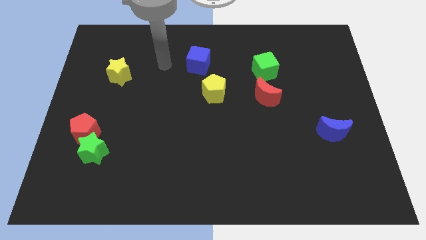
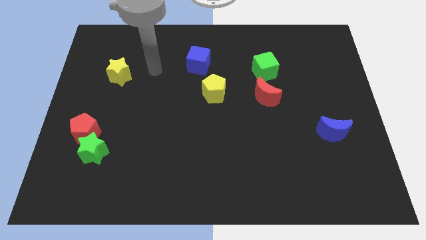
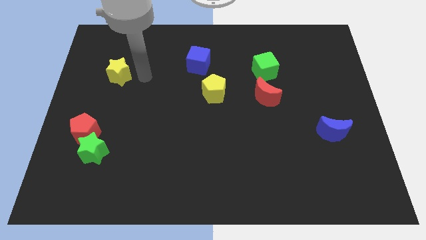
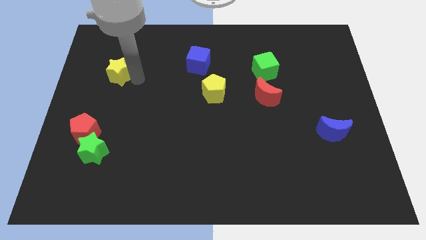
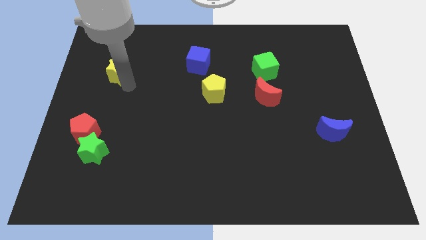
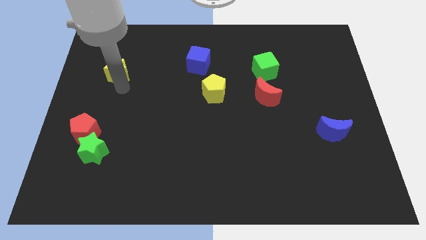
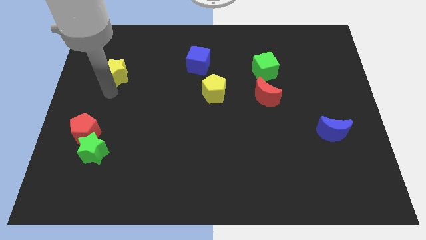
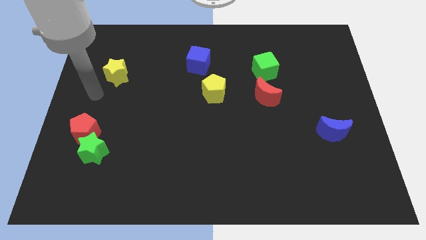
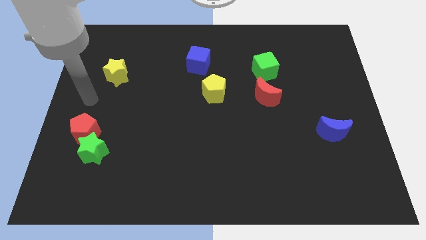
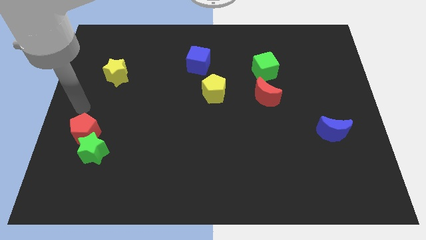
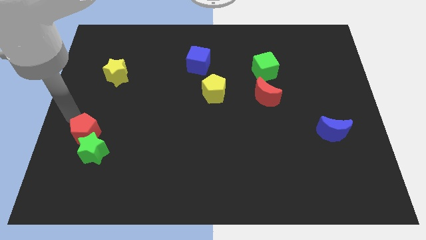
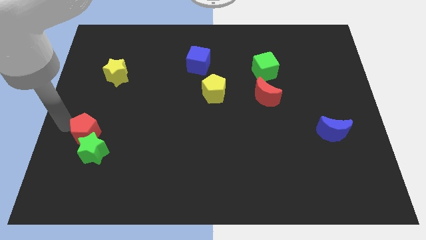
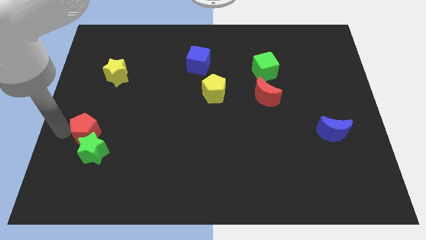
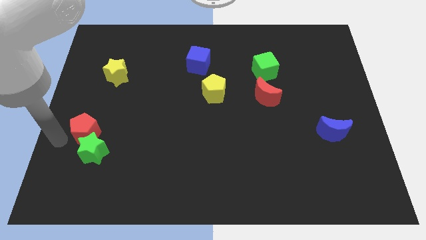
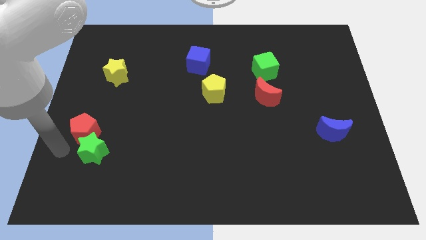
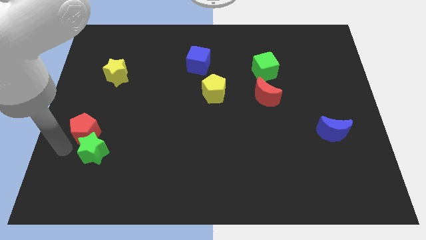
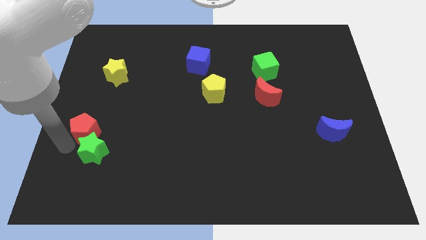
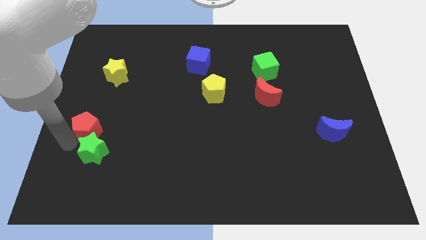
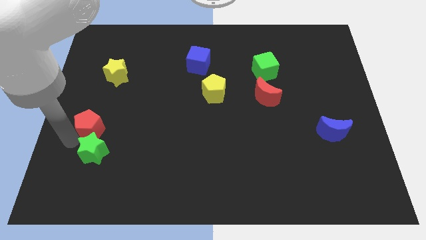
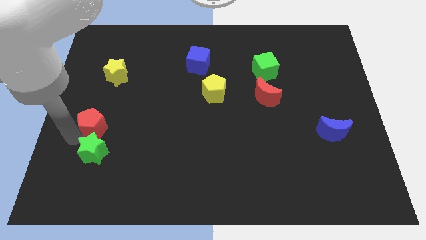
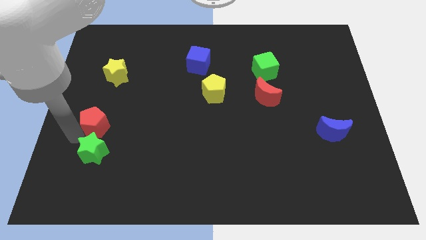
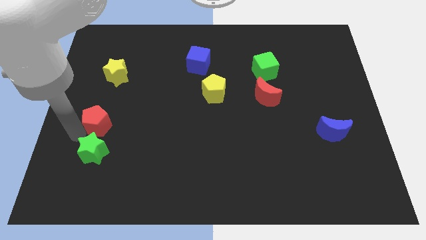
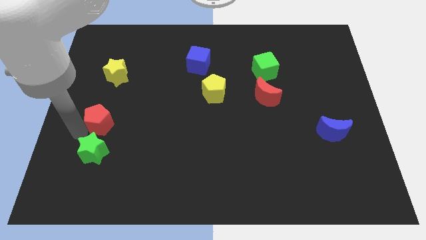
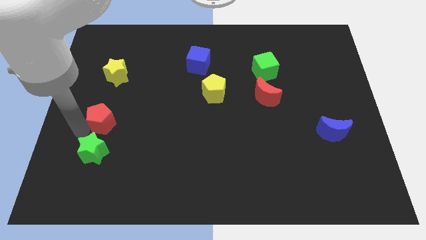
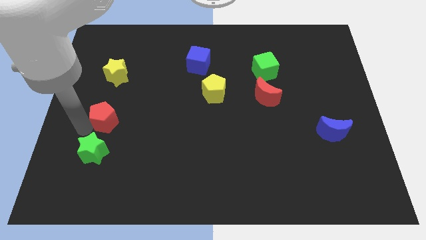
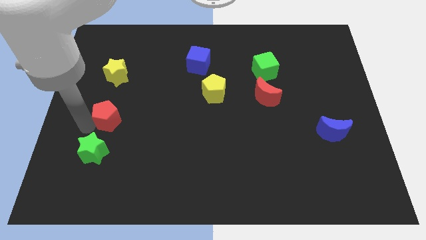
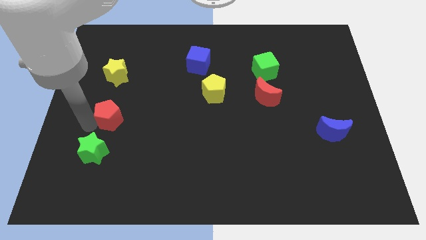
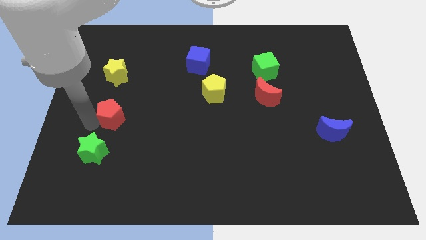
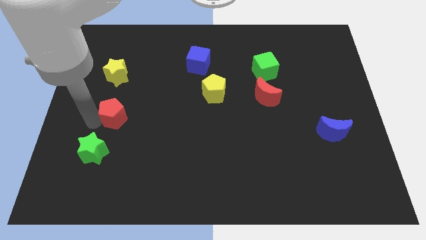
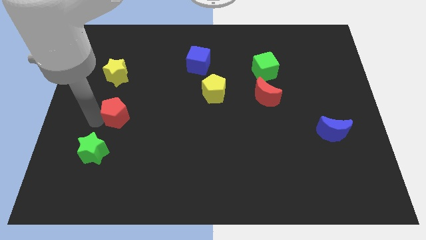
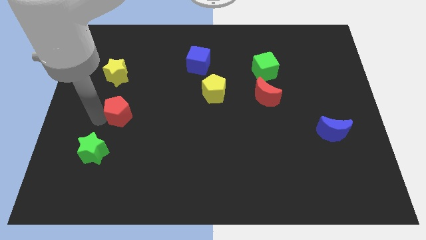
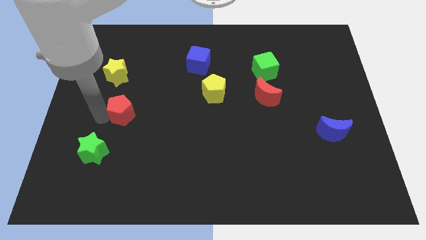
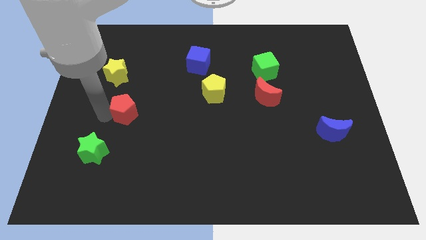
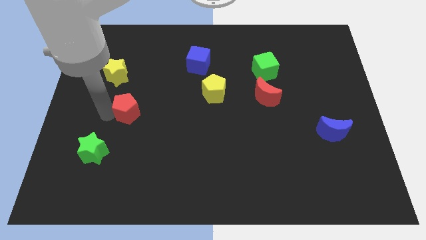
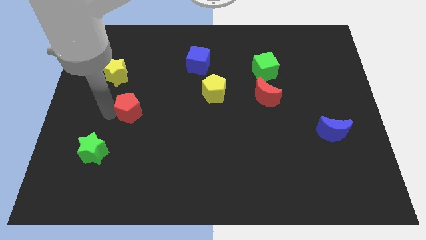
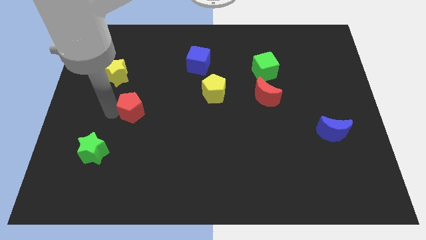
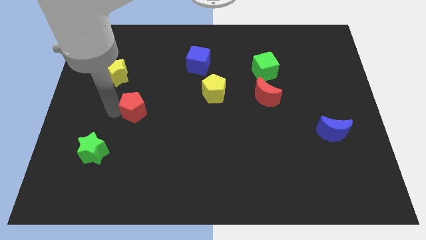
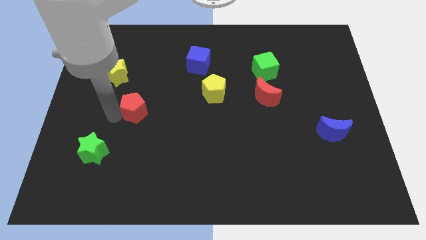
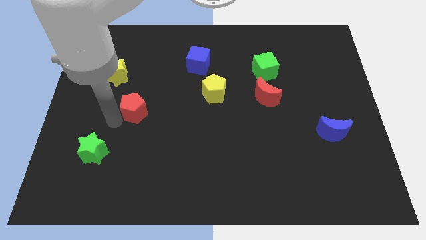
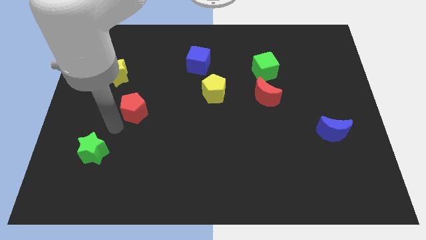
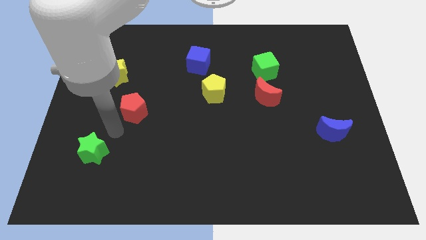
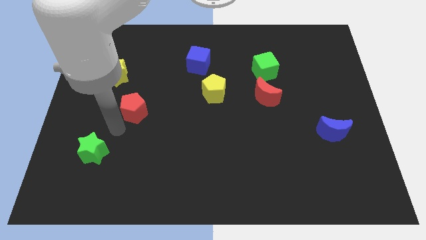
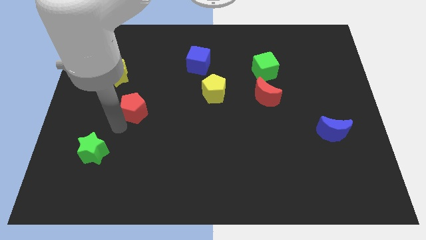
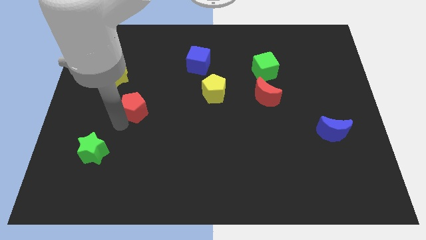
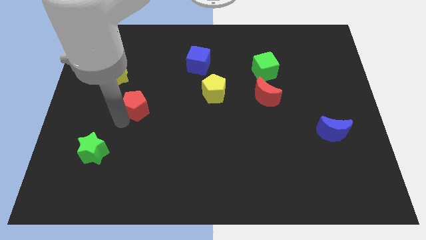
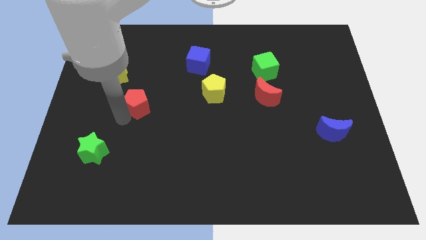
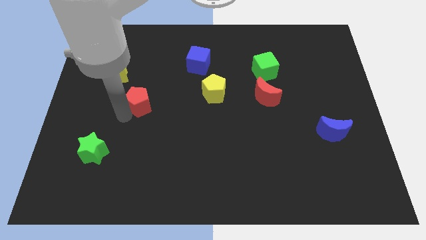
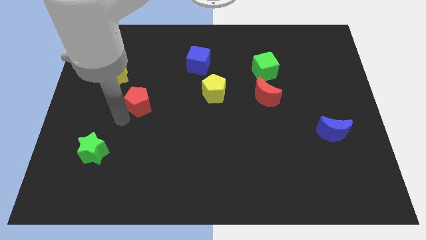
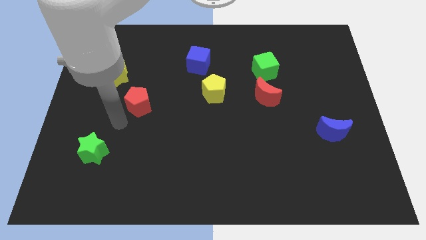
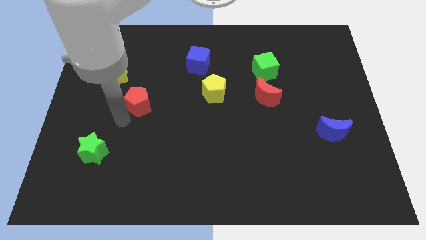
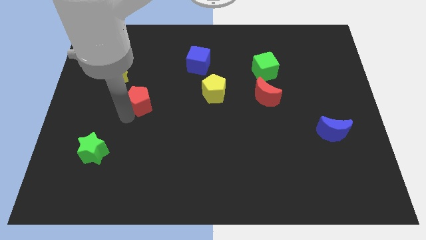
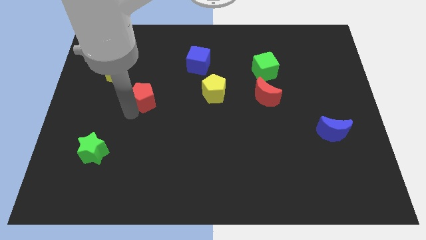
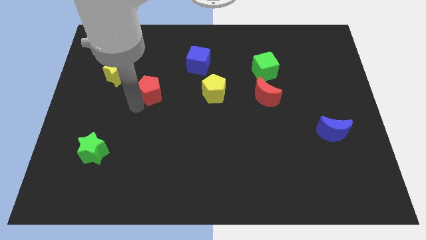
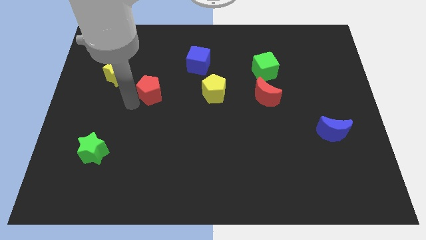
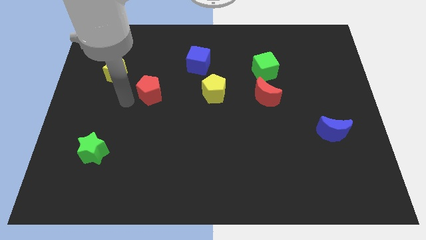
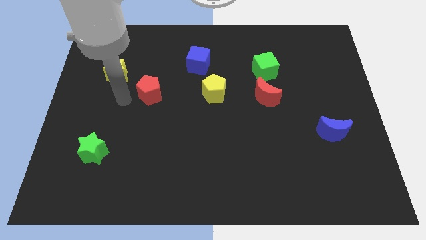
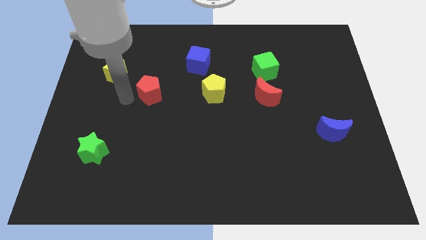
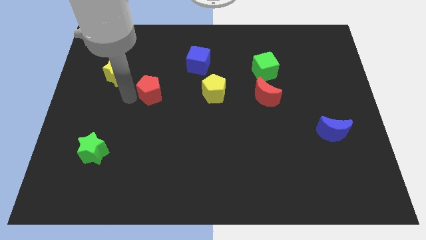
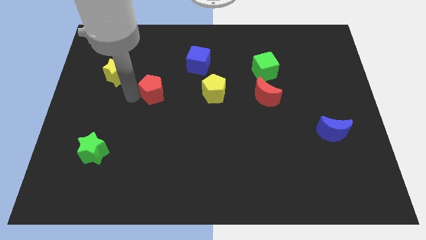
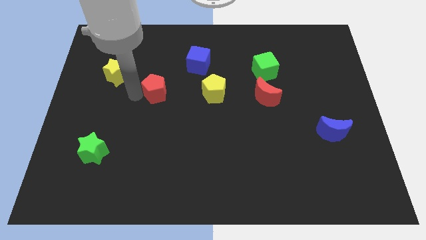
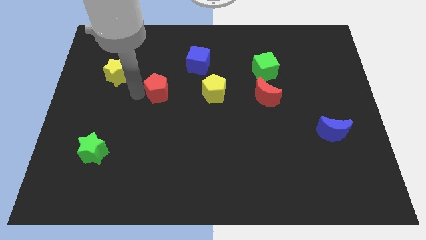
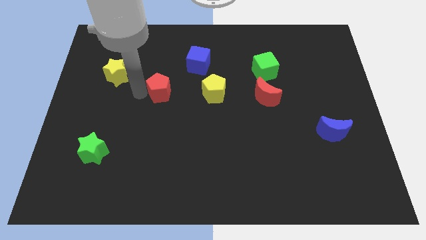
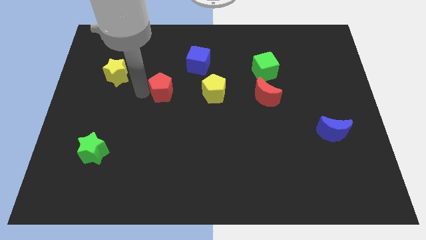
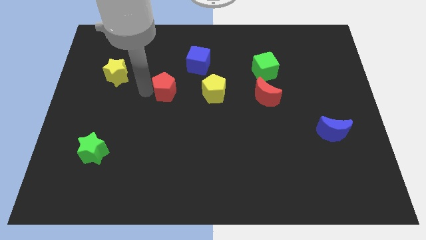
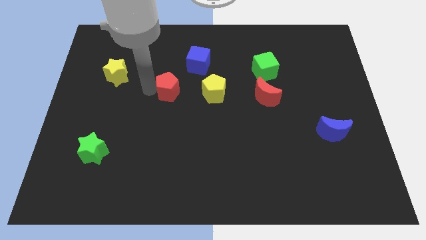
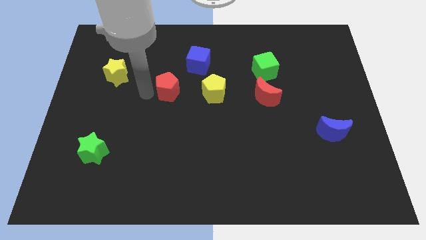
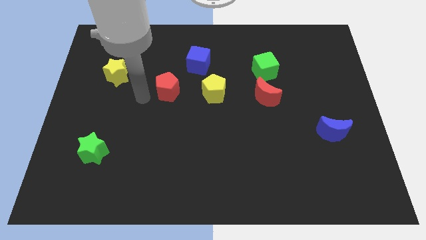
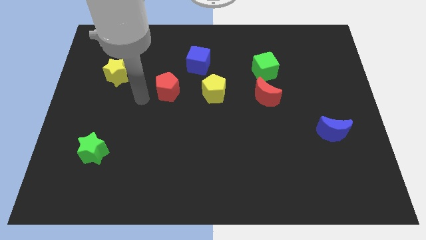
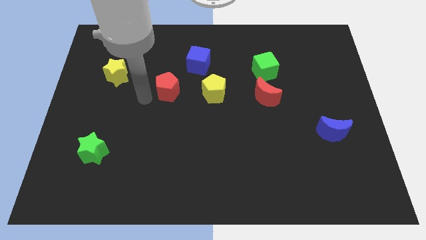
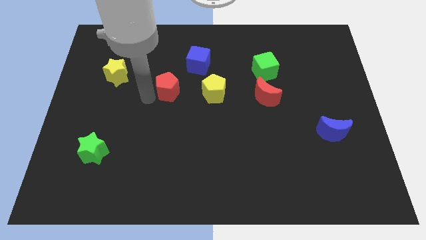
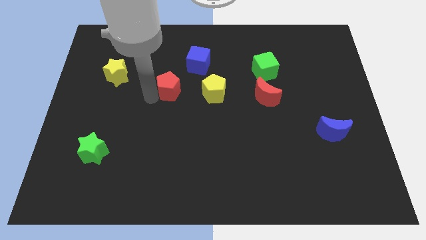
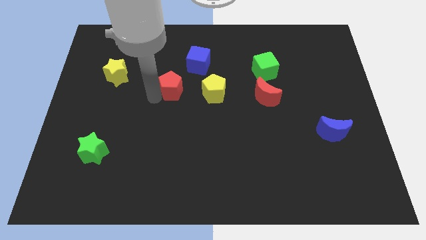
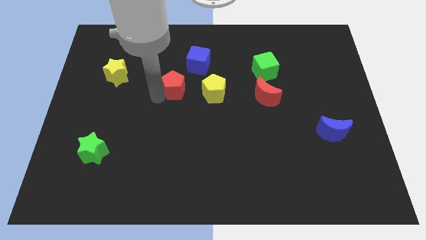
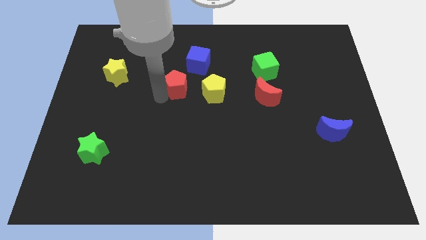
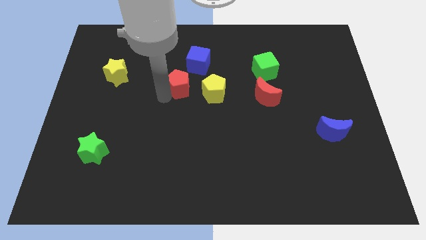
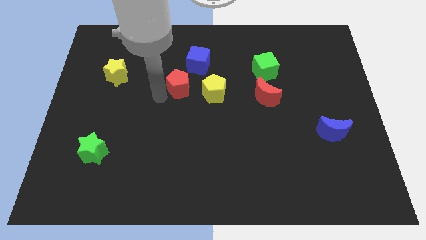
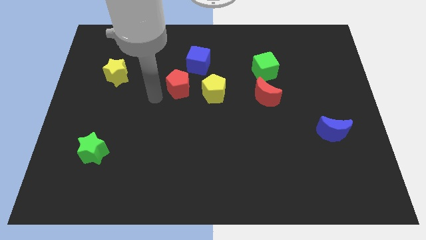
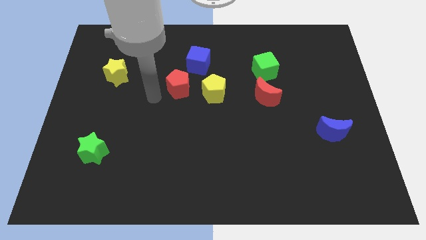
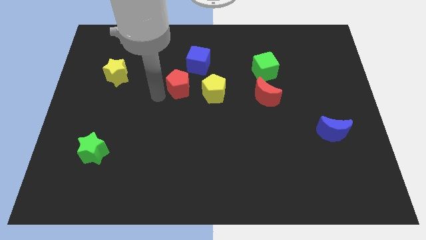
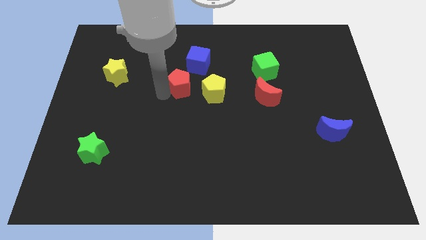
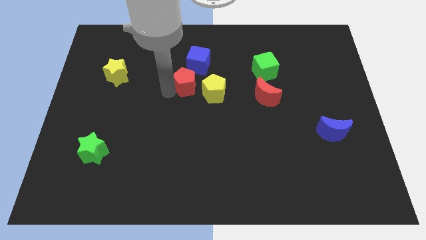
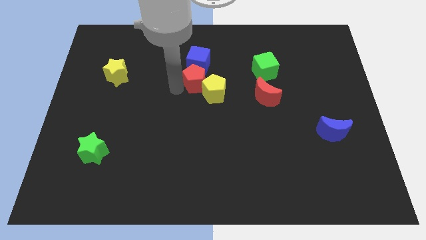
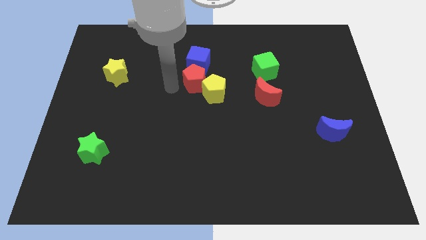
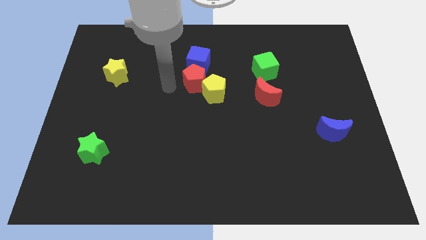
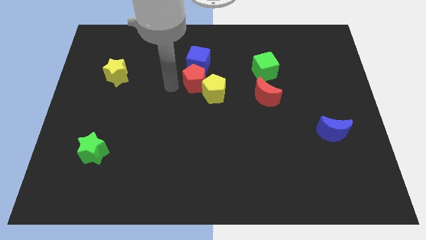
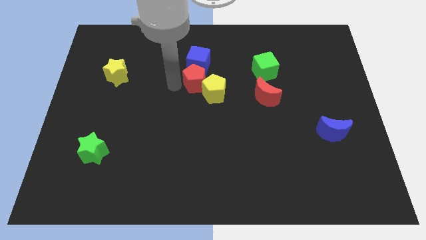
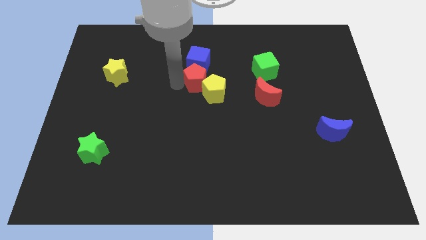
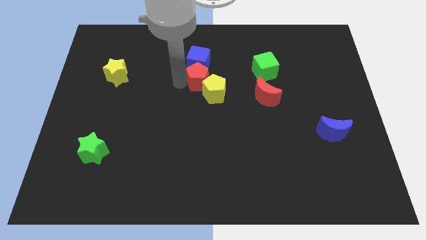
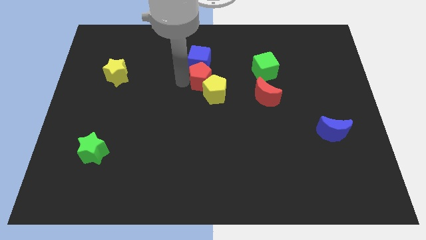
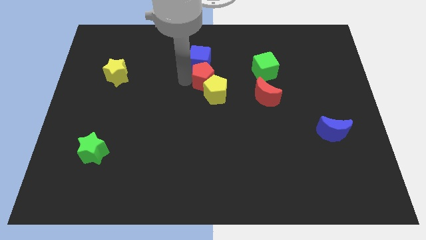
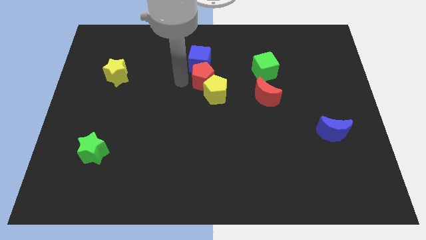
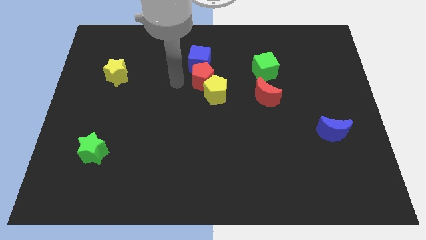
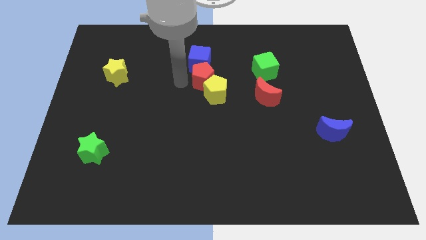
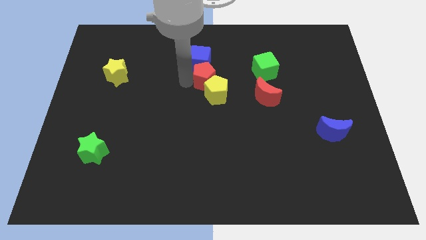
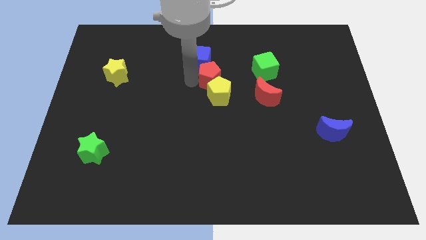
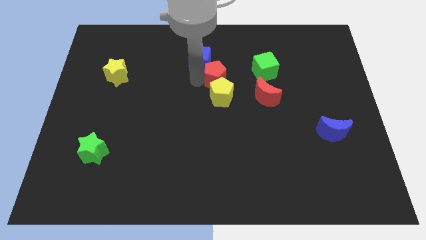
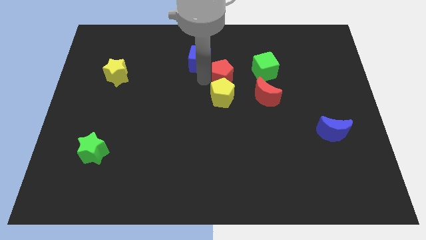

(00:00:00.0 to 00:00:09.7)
push the red pentagon to the top right of the yellow pentagon
